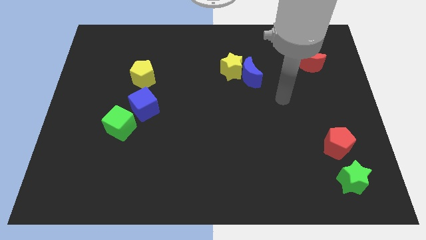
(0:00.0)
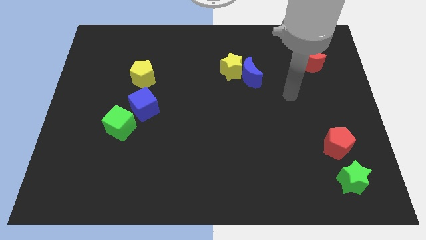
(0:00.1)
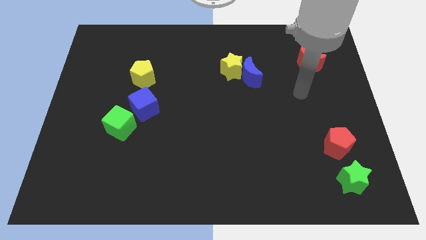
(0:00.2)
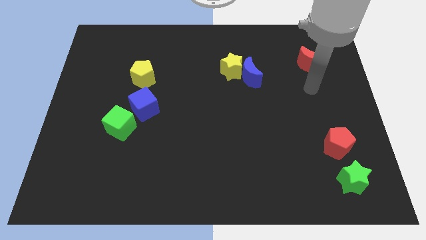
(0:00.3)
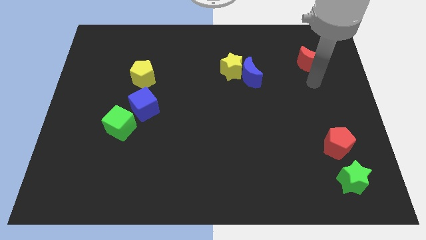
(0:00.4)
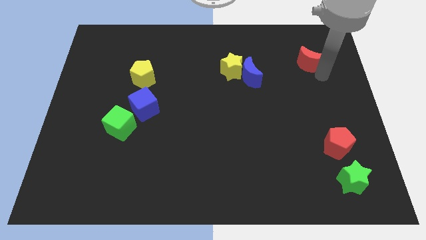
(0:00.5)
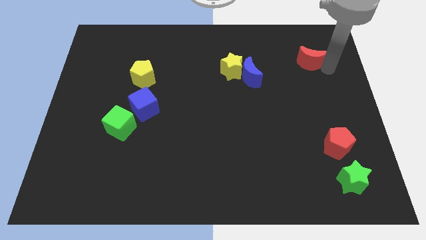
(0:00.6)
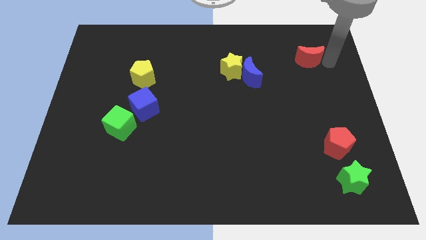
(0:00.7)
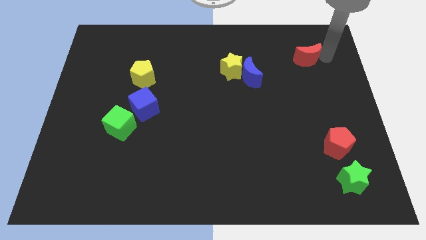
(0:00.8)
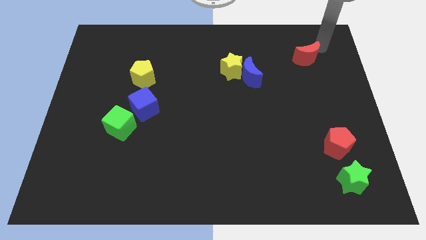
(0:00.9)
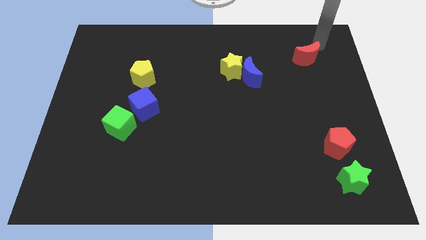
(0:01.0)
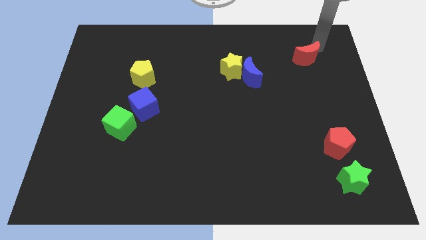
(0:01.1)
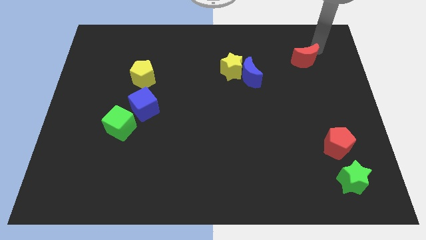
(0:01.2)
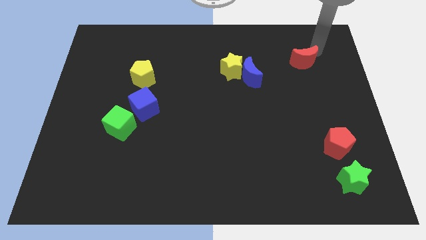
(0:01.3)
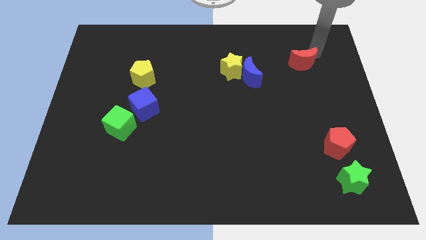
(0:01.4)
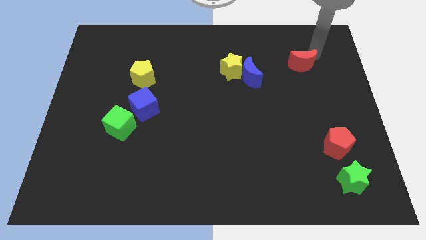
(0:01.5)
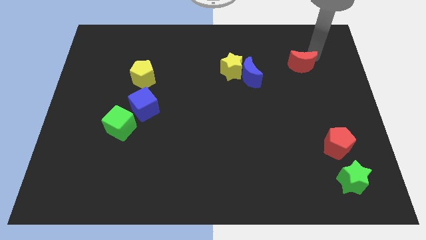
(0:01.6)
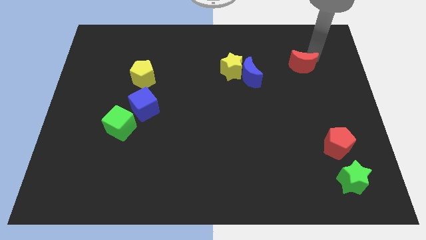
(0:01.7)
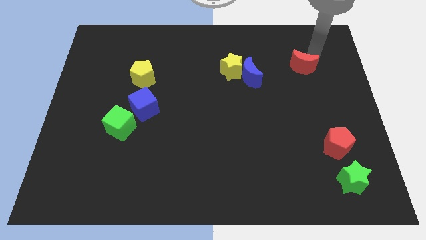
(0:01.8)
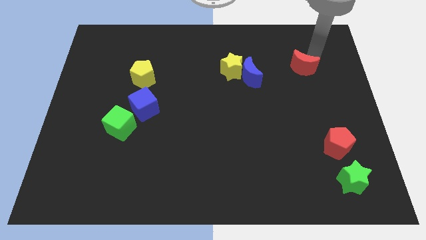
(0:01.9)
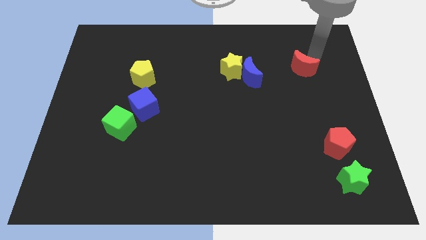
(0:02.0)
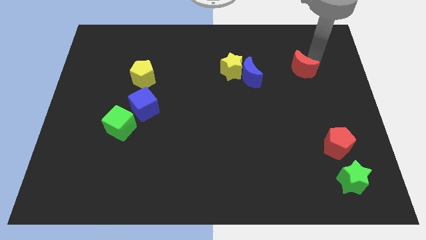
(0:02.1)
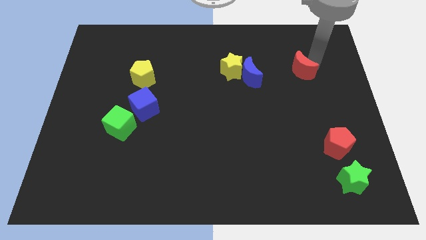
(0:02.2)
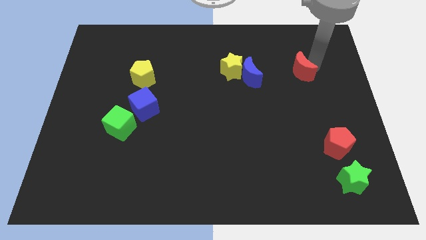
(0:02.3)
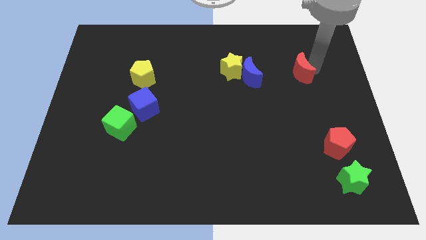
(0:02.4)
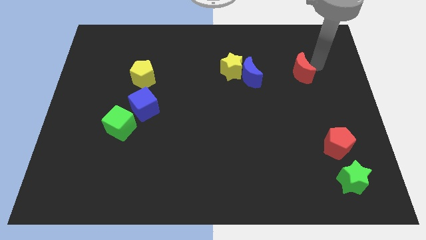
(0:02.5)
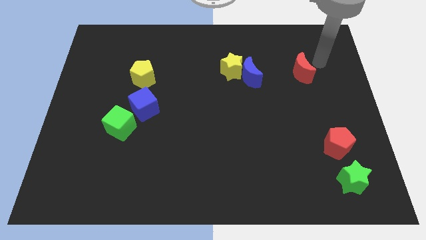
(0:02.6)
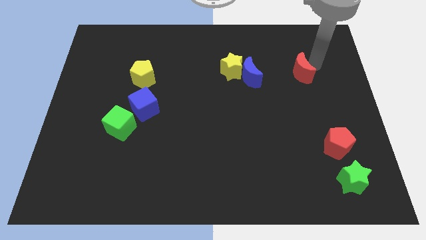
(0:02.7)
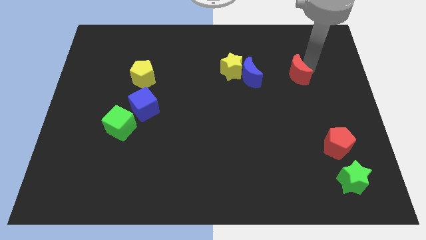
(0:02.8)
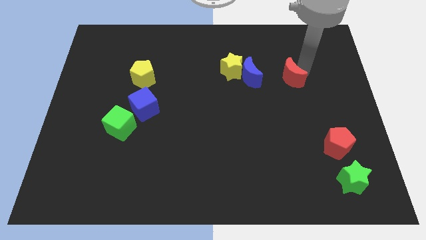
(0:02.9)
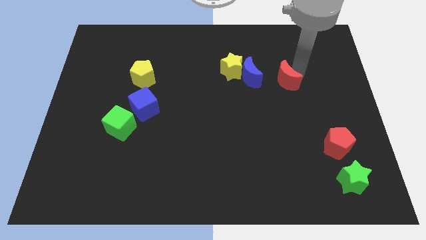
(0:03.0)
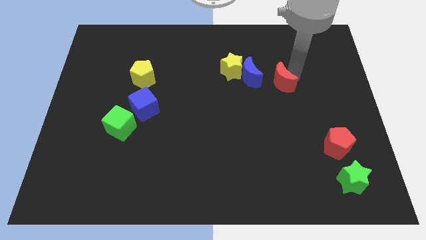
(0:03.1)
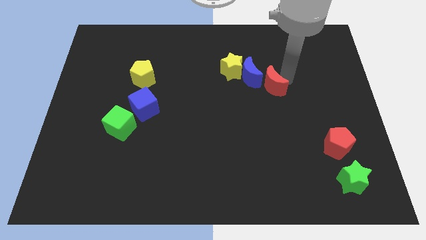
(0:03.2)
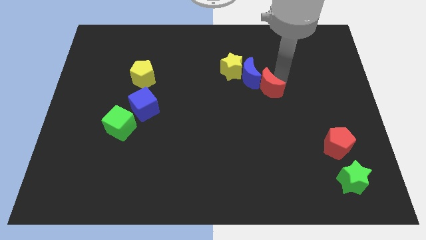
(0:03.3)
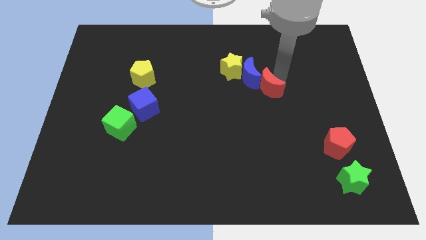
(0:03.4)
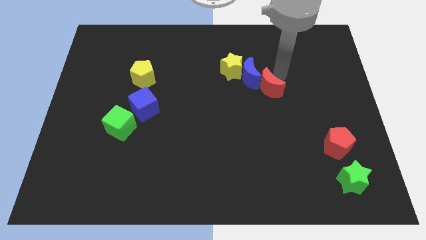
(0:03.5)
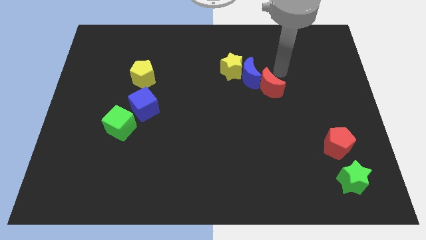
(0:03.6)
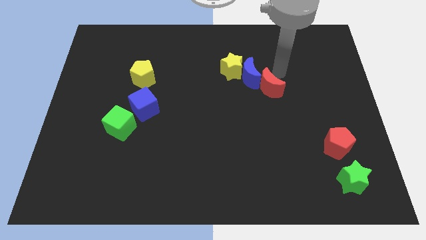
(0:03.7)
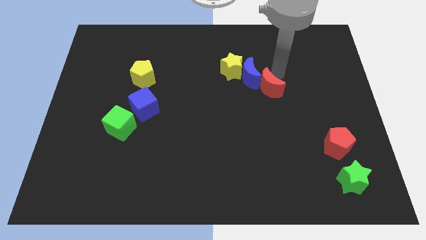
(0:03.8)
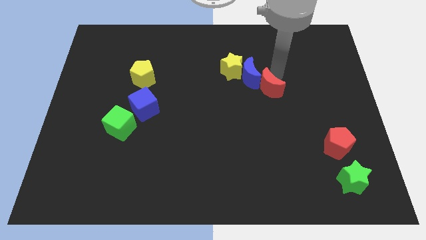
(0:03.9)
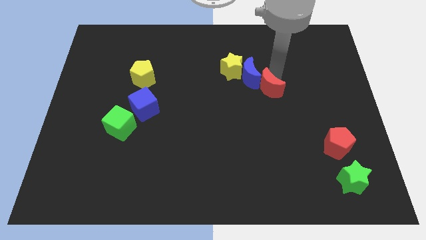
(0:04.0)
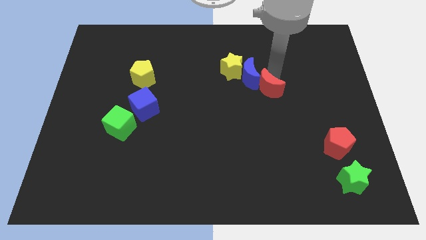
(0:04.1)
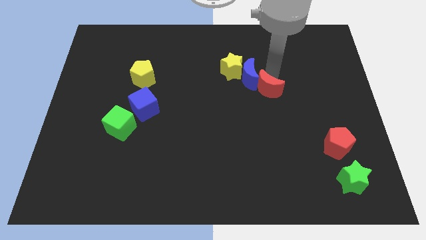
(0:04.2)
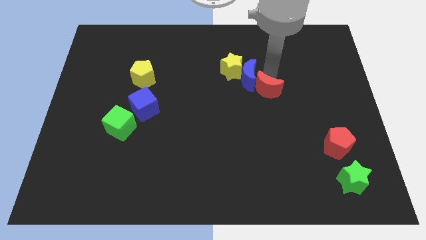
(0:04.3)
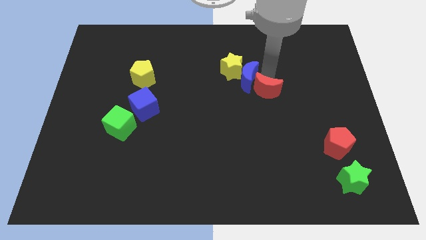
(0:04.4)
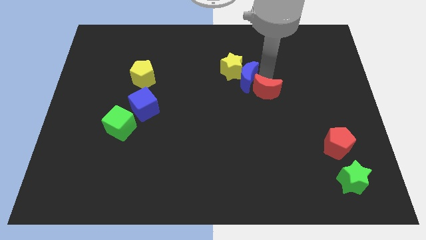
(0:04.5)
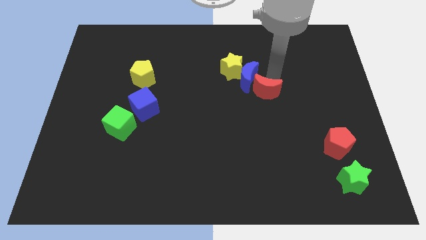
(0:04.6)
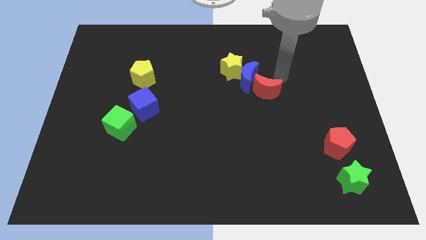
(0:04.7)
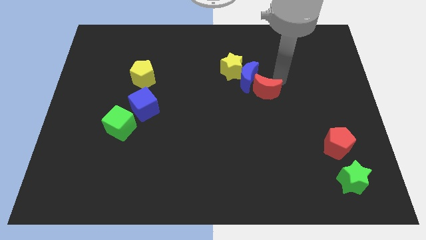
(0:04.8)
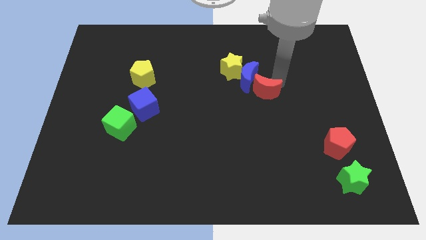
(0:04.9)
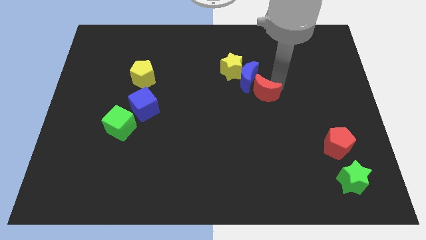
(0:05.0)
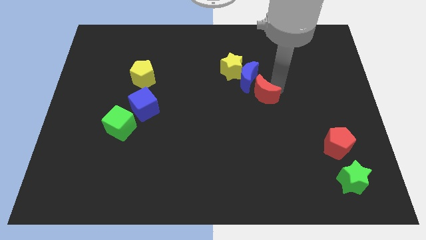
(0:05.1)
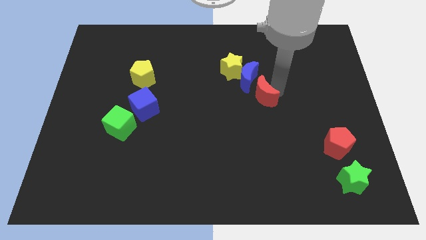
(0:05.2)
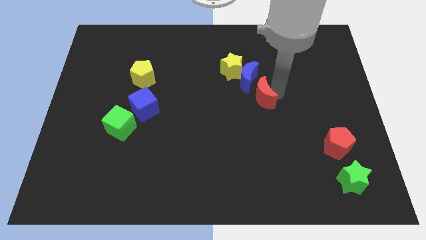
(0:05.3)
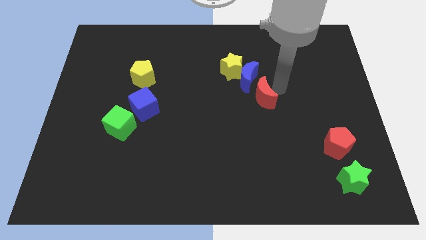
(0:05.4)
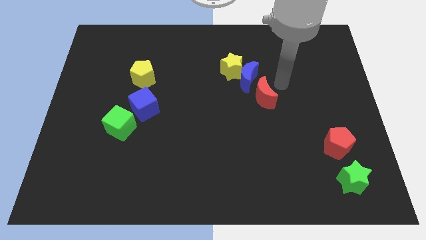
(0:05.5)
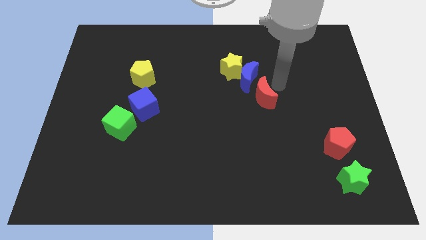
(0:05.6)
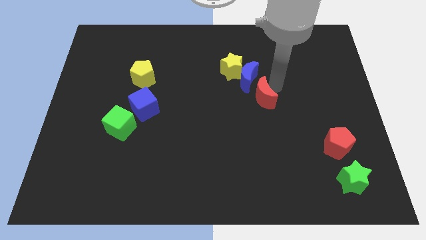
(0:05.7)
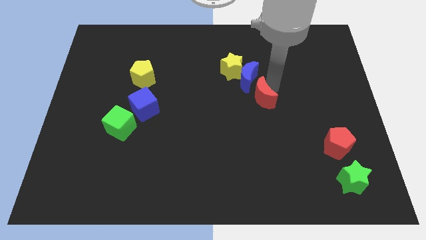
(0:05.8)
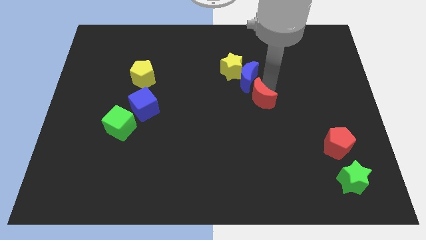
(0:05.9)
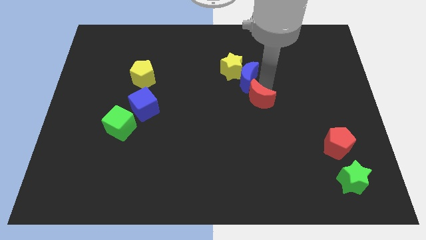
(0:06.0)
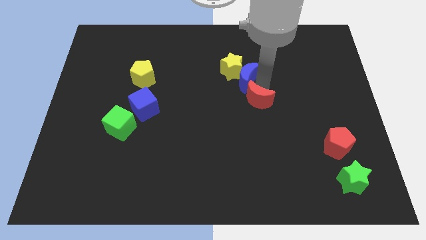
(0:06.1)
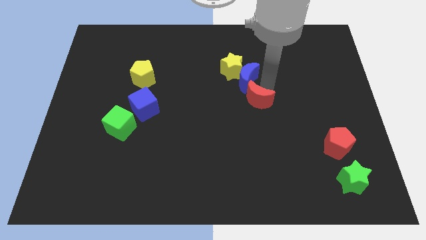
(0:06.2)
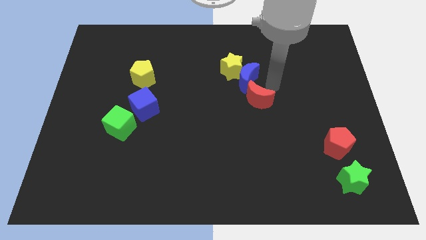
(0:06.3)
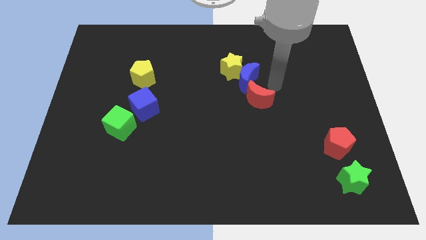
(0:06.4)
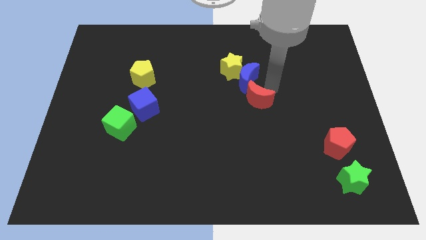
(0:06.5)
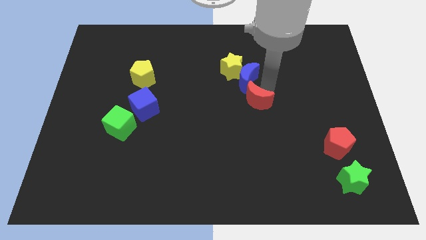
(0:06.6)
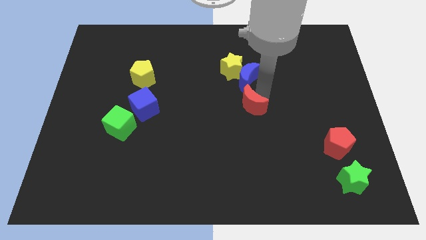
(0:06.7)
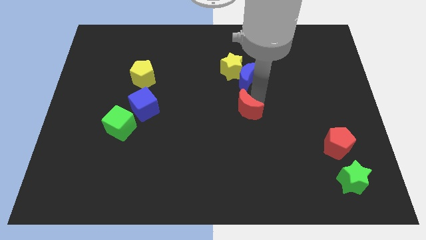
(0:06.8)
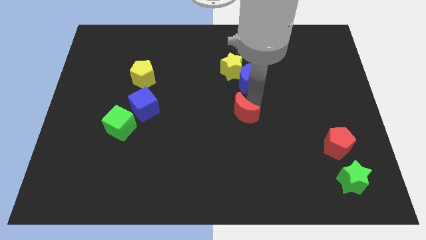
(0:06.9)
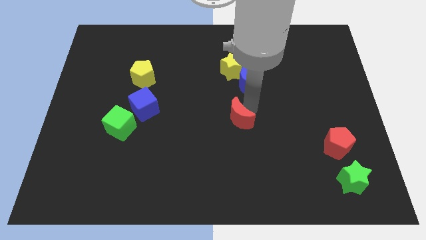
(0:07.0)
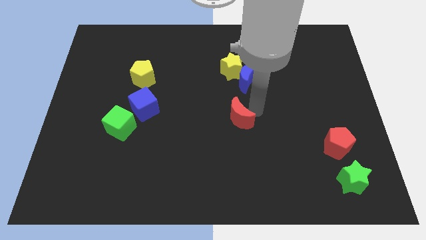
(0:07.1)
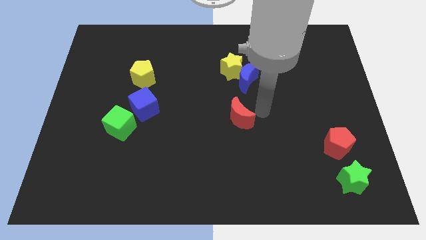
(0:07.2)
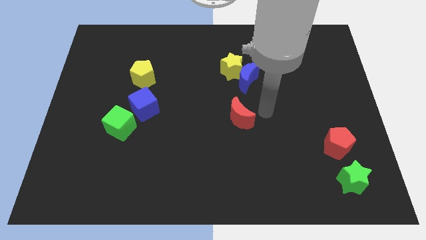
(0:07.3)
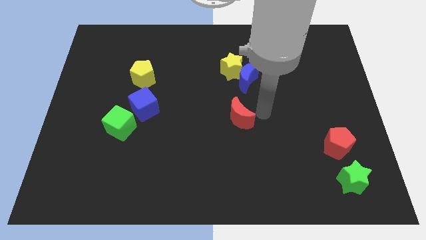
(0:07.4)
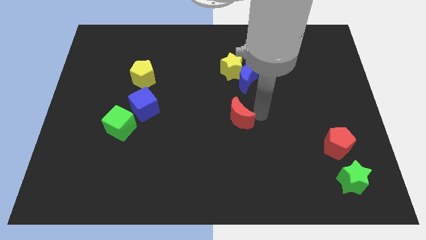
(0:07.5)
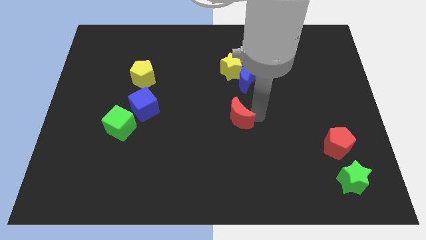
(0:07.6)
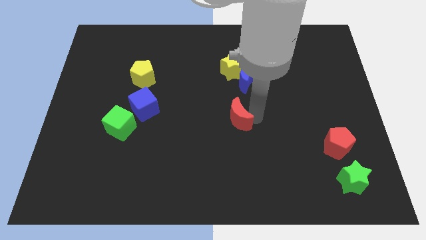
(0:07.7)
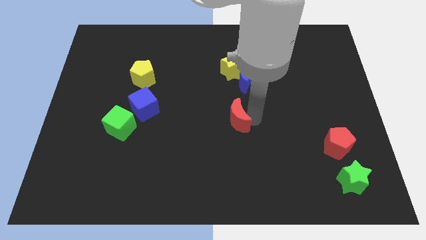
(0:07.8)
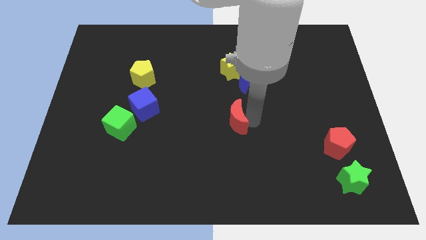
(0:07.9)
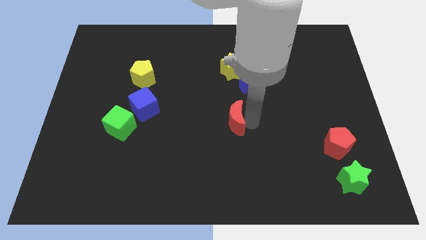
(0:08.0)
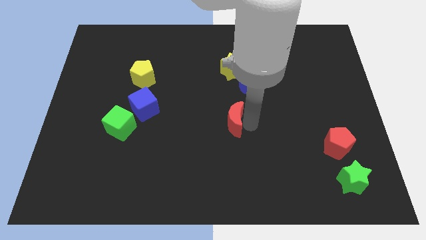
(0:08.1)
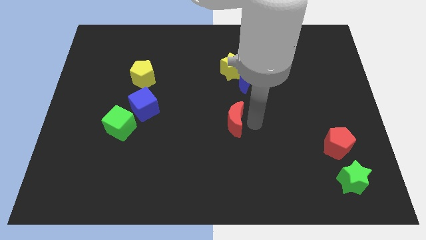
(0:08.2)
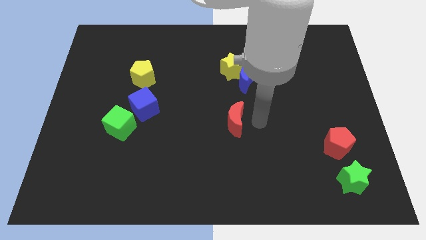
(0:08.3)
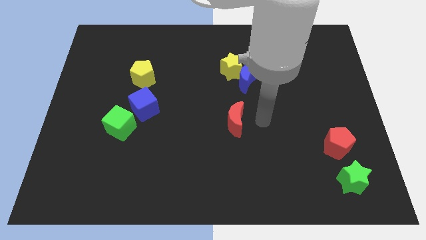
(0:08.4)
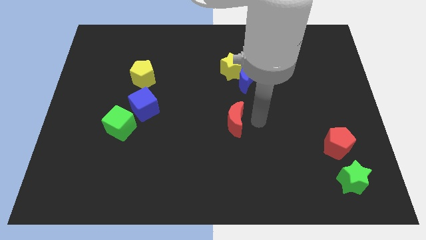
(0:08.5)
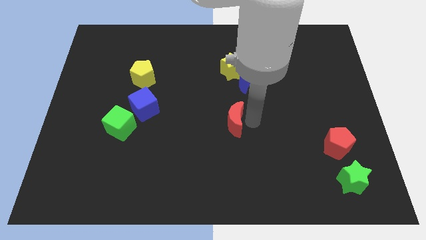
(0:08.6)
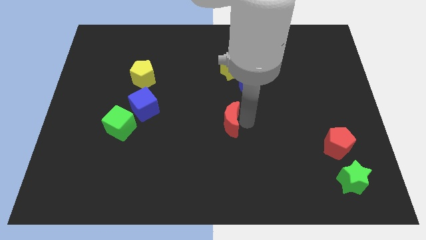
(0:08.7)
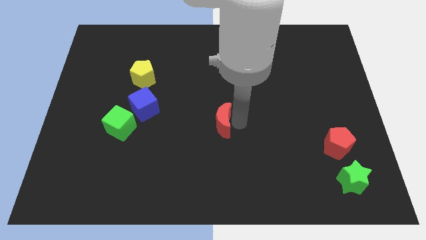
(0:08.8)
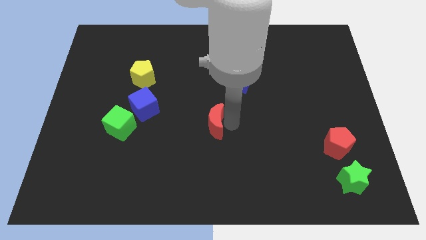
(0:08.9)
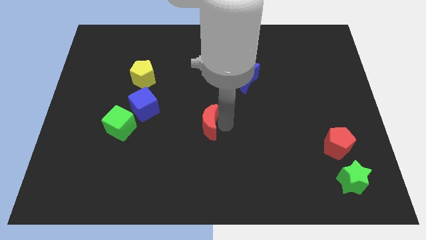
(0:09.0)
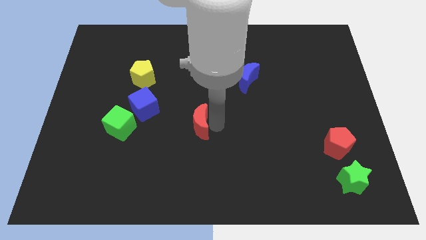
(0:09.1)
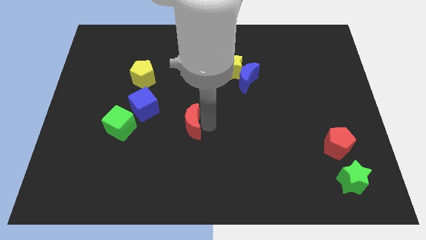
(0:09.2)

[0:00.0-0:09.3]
put the red moon right of the green cube
